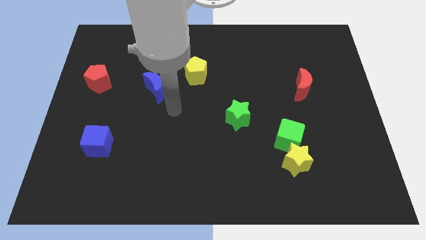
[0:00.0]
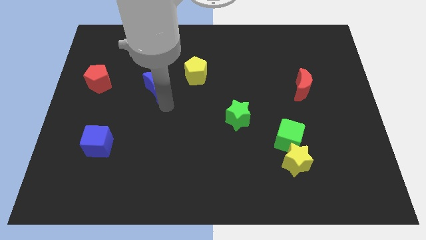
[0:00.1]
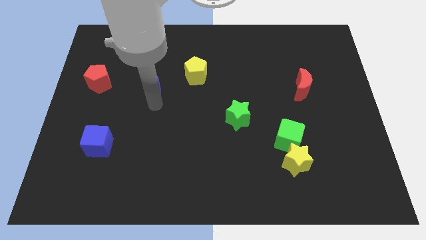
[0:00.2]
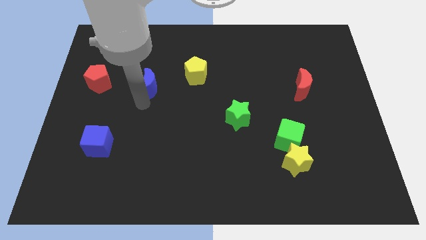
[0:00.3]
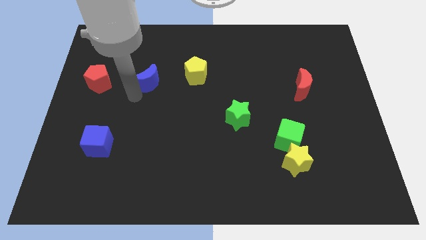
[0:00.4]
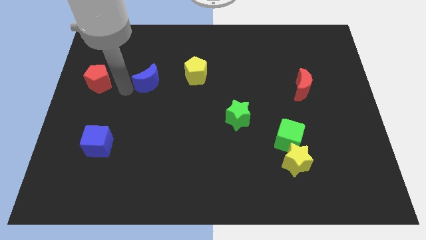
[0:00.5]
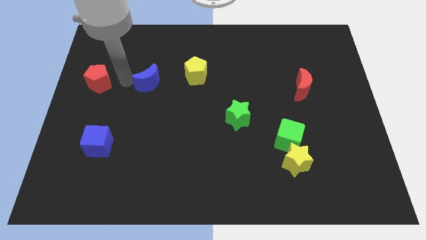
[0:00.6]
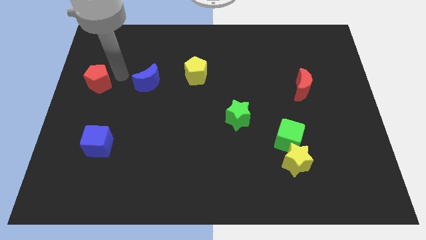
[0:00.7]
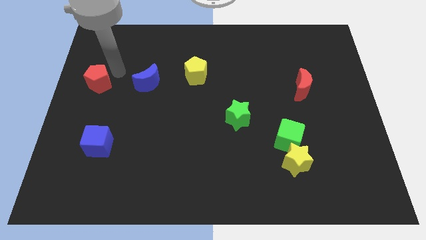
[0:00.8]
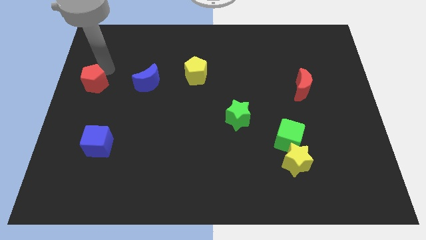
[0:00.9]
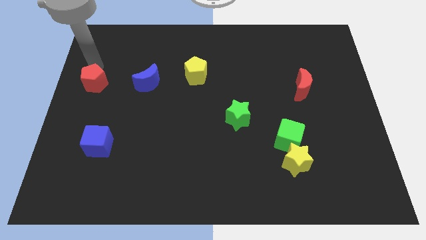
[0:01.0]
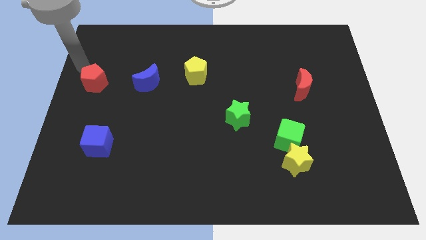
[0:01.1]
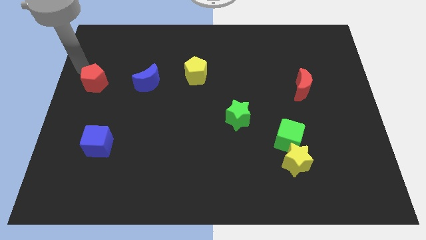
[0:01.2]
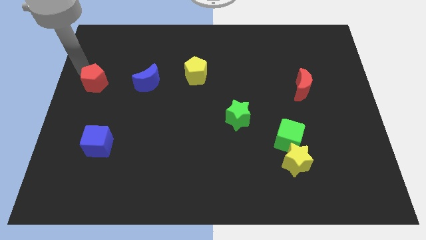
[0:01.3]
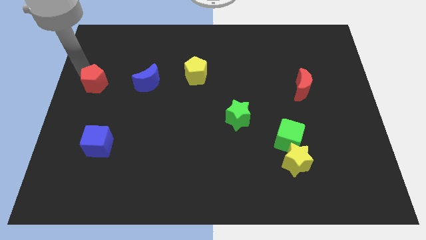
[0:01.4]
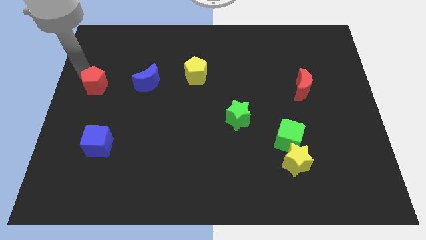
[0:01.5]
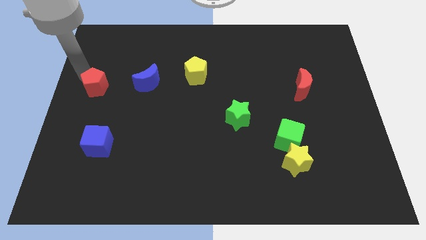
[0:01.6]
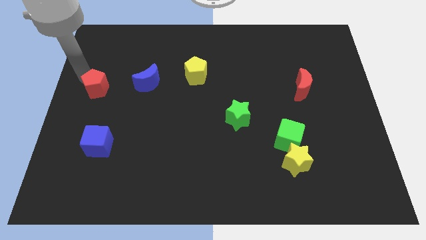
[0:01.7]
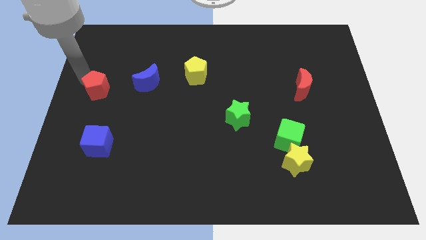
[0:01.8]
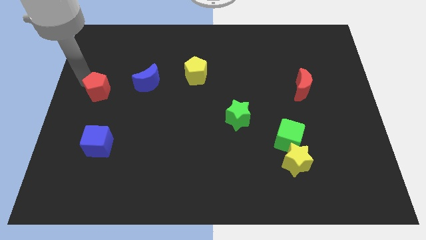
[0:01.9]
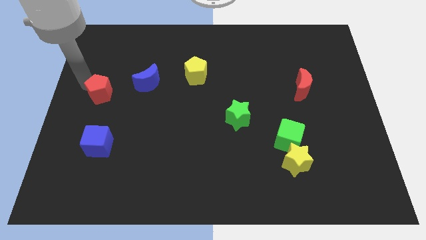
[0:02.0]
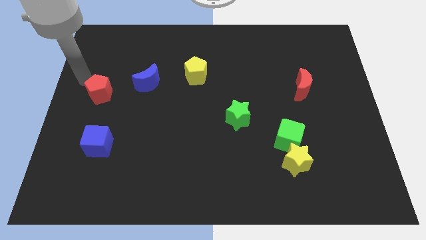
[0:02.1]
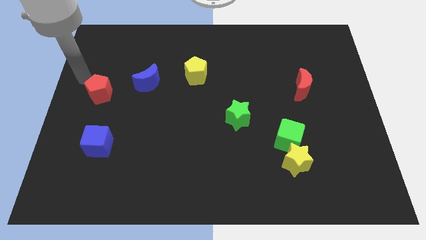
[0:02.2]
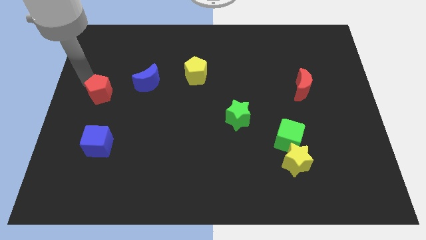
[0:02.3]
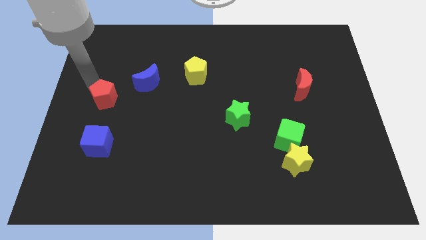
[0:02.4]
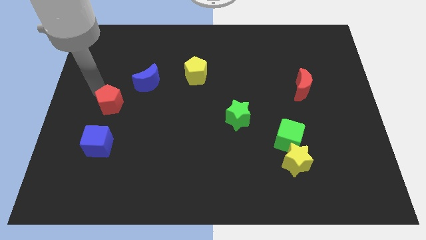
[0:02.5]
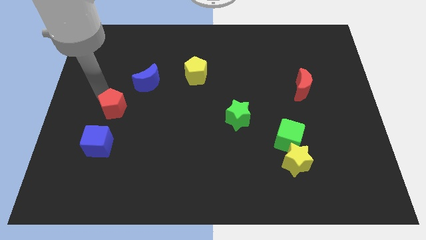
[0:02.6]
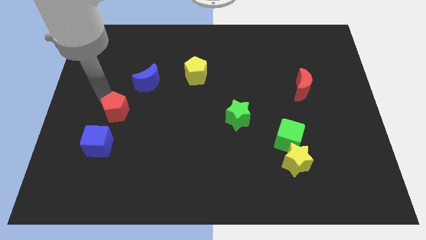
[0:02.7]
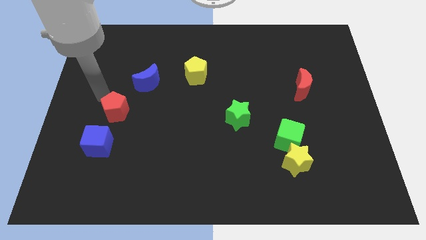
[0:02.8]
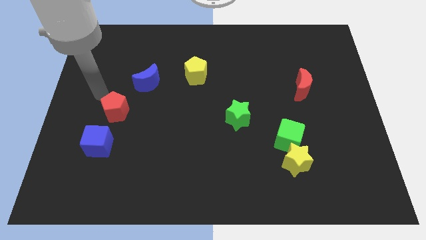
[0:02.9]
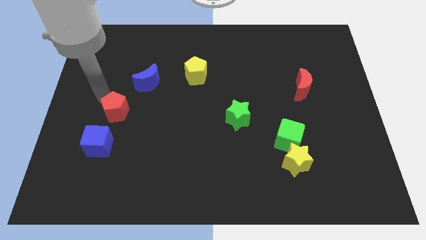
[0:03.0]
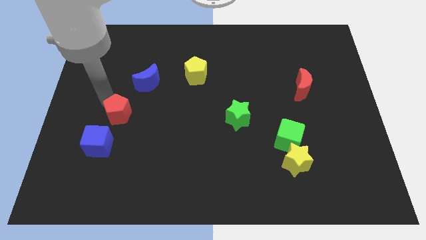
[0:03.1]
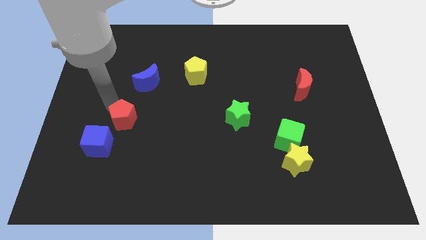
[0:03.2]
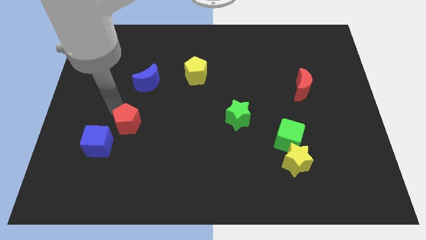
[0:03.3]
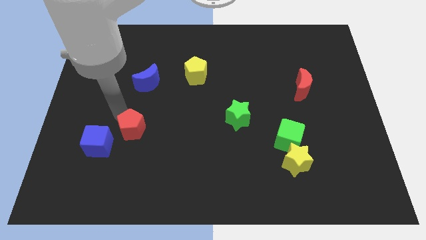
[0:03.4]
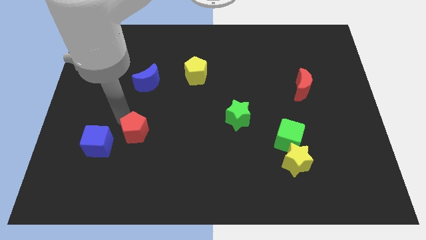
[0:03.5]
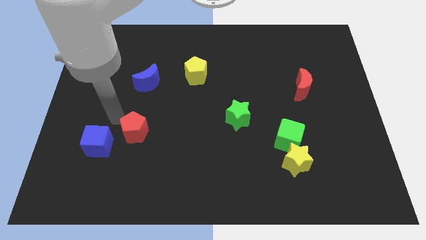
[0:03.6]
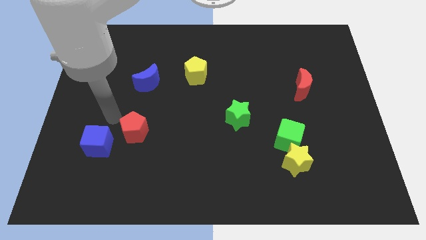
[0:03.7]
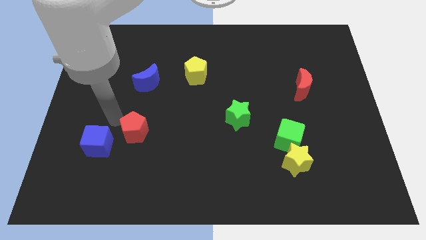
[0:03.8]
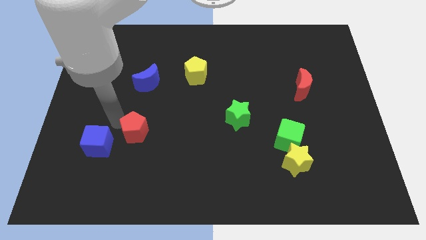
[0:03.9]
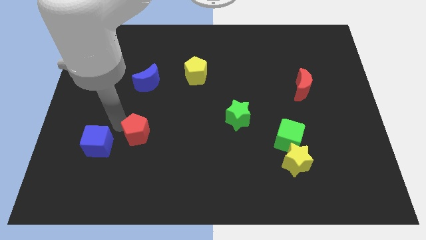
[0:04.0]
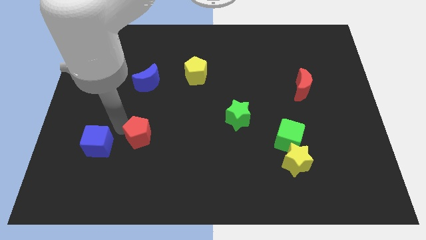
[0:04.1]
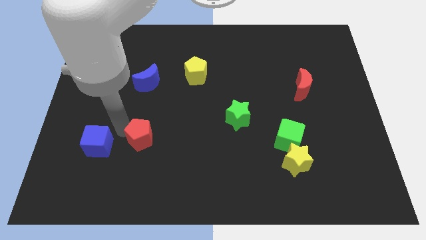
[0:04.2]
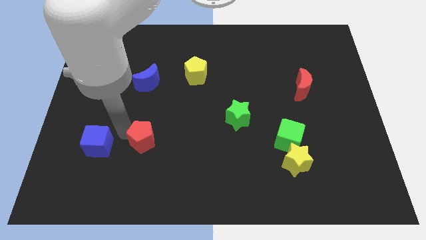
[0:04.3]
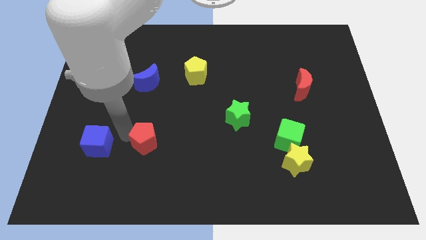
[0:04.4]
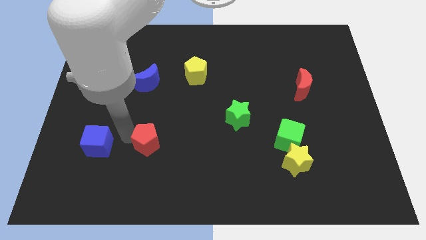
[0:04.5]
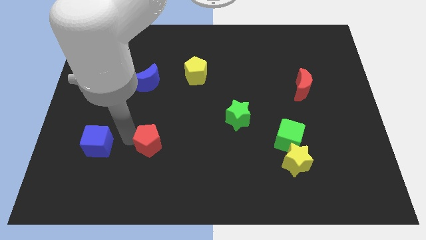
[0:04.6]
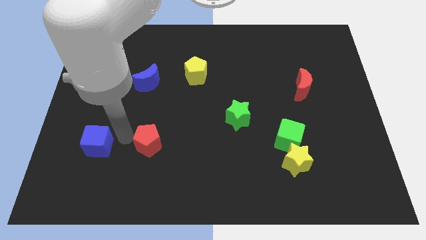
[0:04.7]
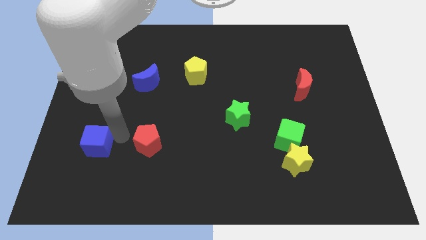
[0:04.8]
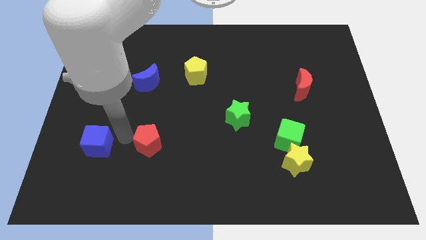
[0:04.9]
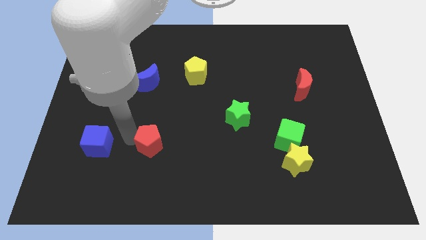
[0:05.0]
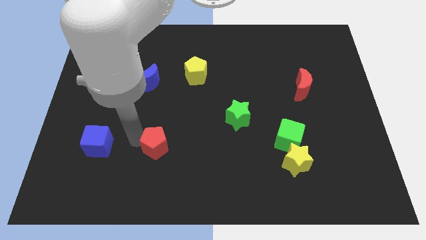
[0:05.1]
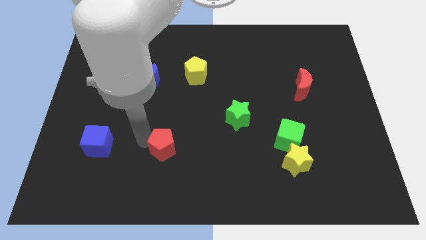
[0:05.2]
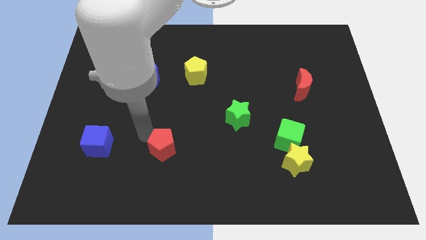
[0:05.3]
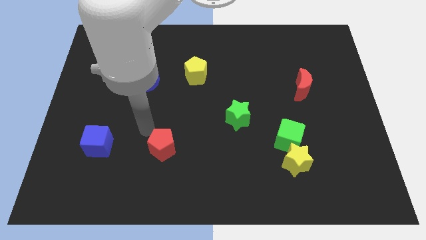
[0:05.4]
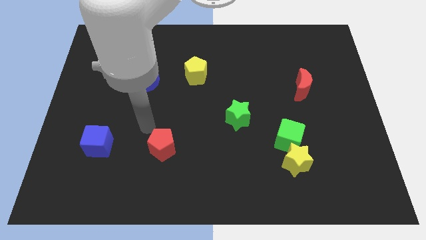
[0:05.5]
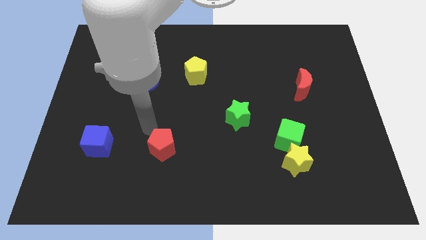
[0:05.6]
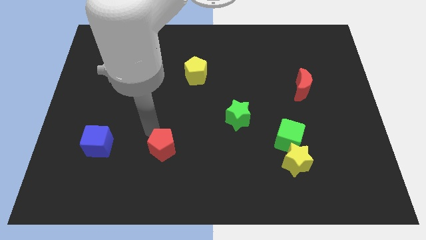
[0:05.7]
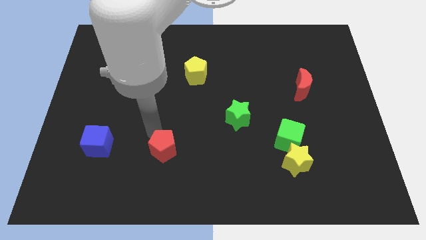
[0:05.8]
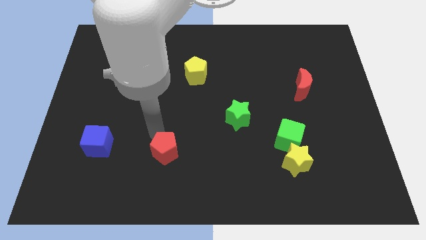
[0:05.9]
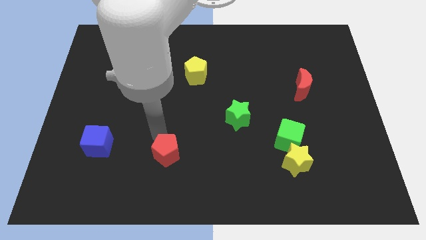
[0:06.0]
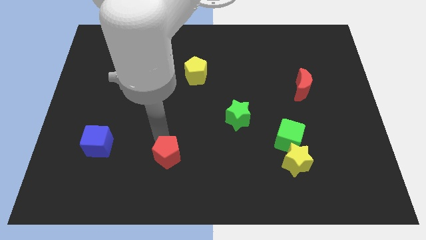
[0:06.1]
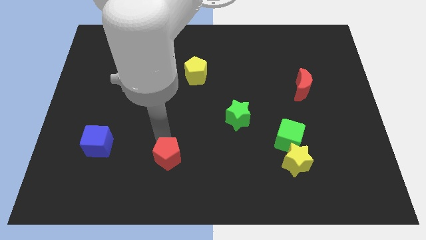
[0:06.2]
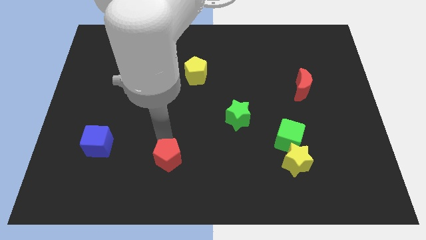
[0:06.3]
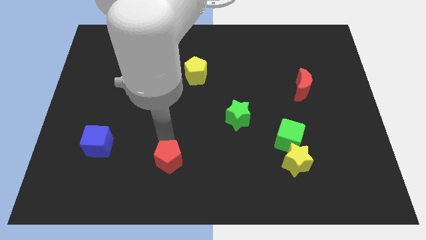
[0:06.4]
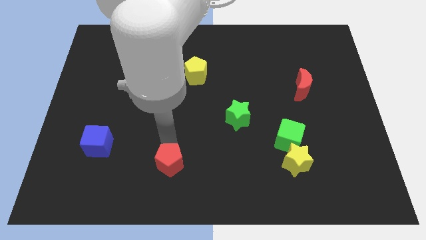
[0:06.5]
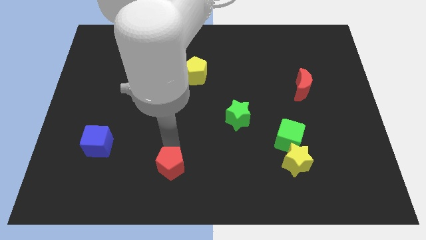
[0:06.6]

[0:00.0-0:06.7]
put the red pentagon to the bottom side

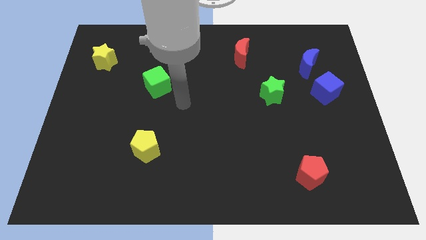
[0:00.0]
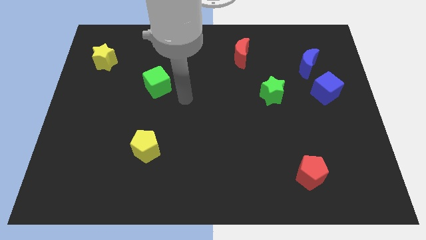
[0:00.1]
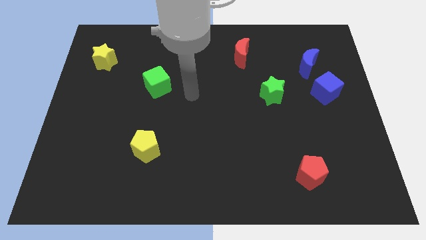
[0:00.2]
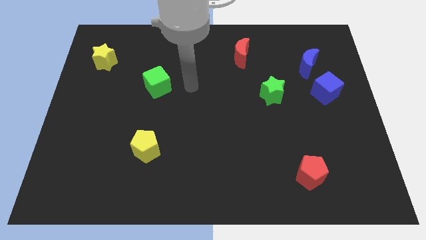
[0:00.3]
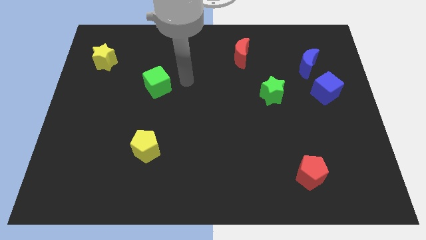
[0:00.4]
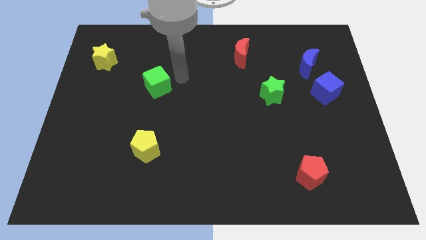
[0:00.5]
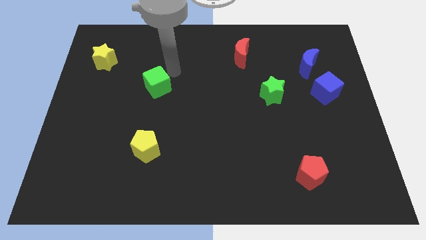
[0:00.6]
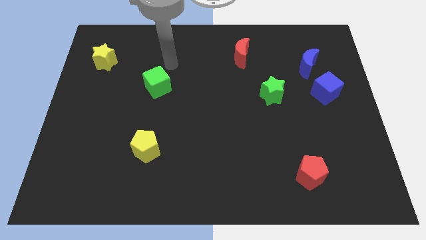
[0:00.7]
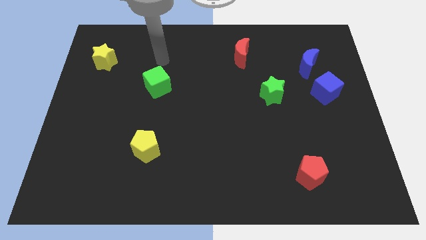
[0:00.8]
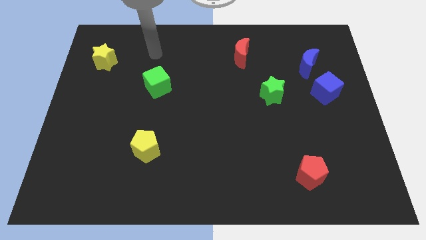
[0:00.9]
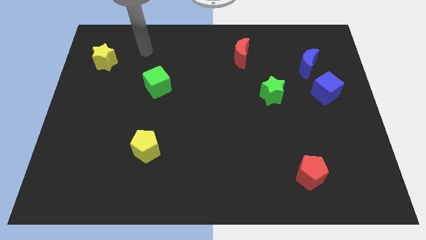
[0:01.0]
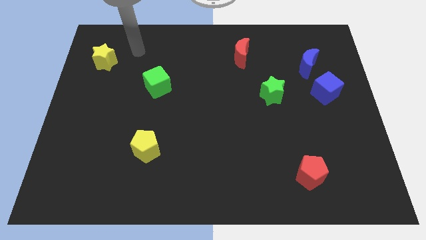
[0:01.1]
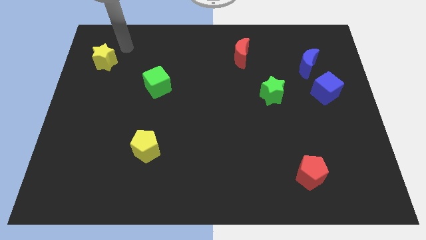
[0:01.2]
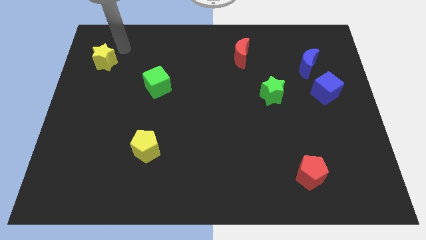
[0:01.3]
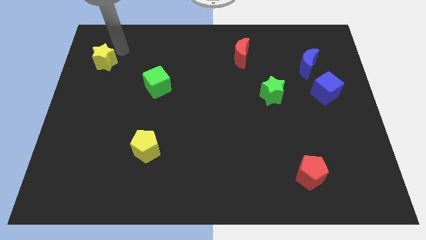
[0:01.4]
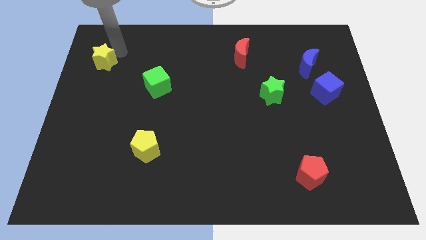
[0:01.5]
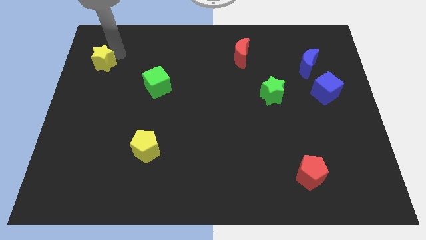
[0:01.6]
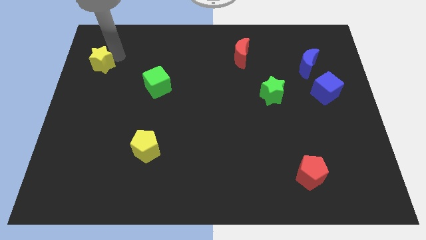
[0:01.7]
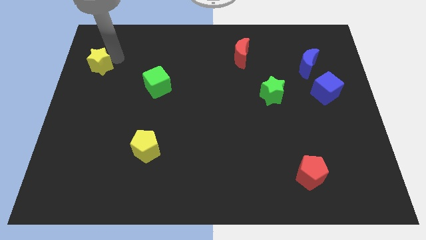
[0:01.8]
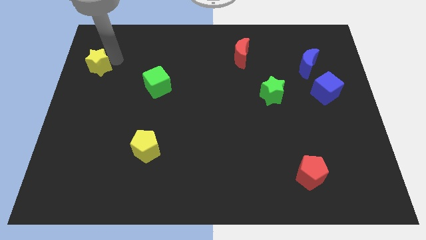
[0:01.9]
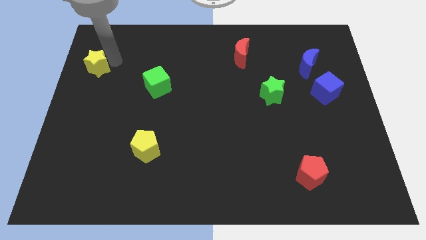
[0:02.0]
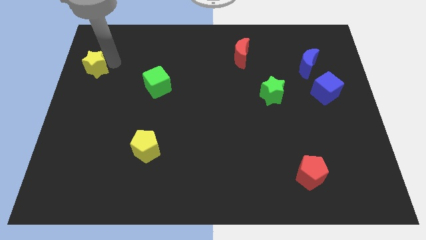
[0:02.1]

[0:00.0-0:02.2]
slide the yellow star to the left side
